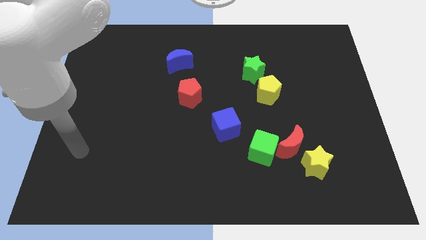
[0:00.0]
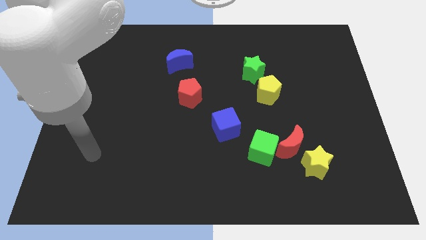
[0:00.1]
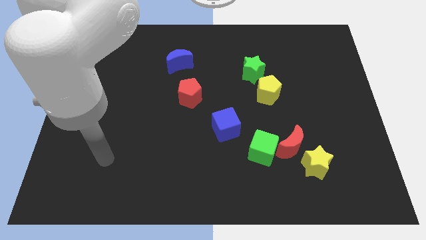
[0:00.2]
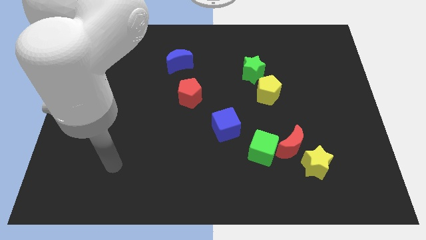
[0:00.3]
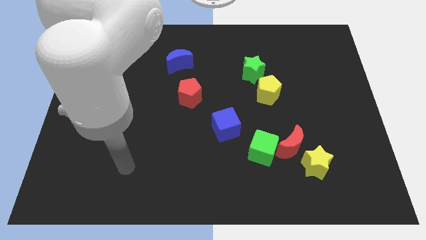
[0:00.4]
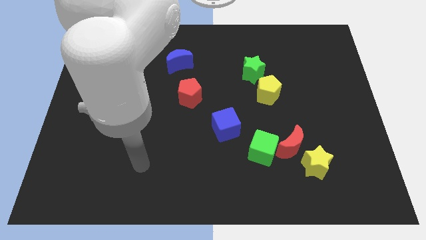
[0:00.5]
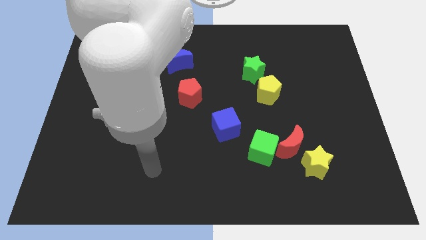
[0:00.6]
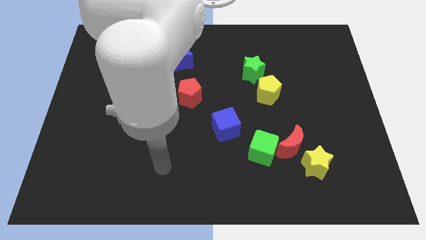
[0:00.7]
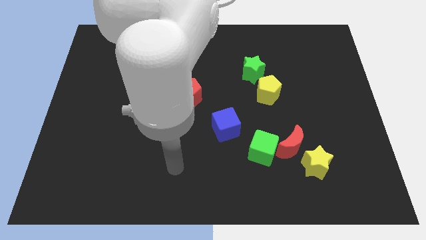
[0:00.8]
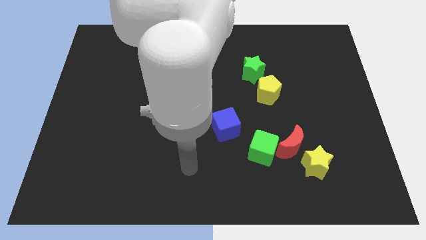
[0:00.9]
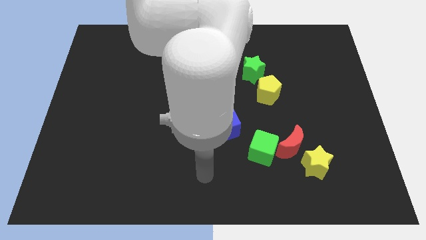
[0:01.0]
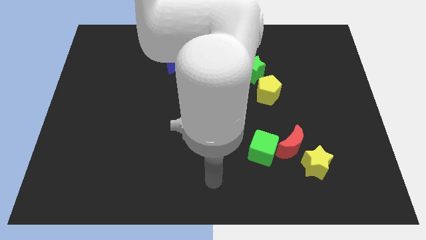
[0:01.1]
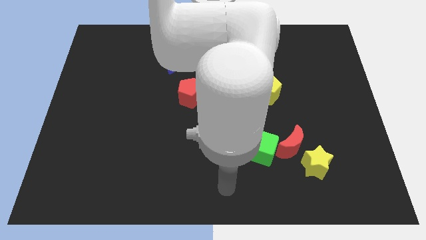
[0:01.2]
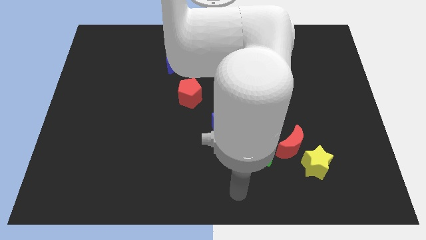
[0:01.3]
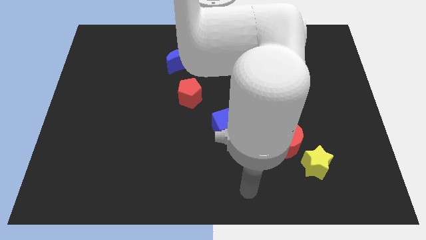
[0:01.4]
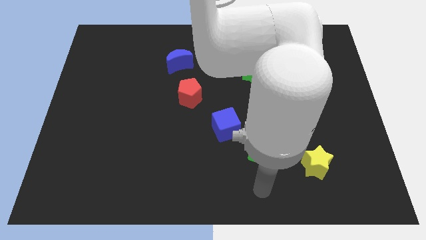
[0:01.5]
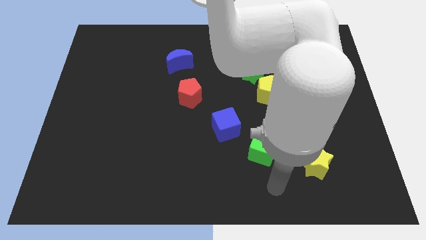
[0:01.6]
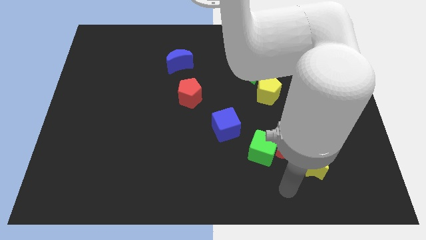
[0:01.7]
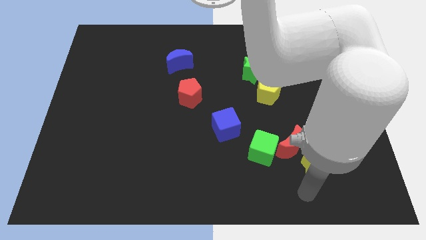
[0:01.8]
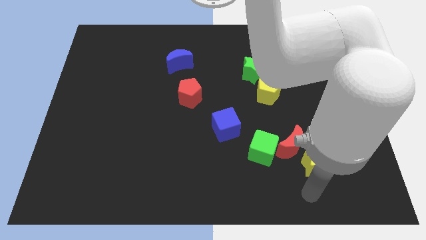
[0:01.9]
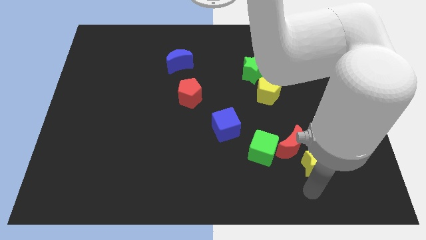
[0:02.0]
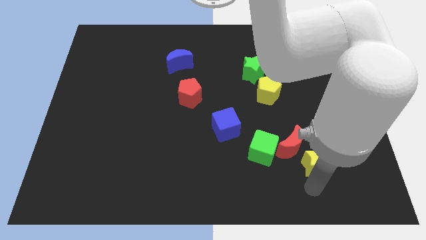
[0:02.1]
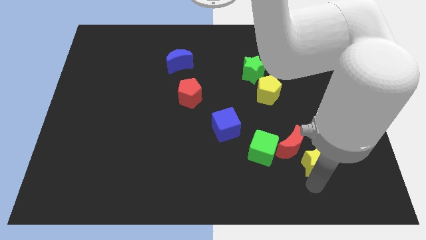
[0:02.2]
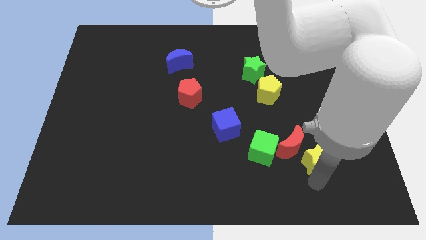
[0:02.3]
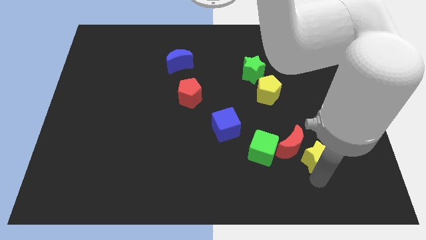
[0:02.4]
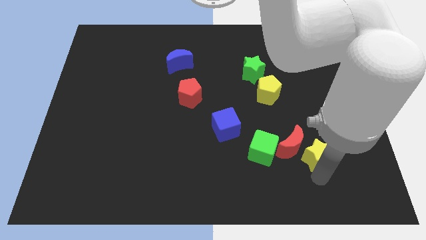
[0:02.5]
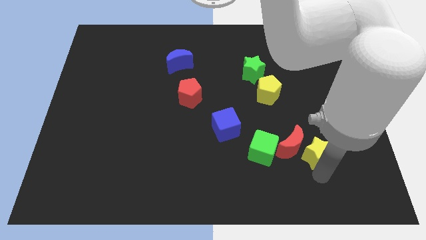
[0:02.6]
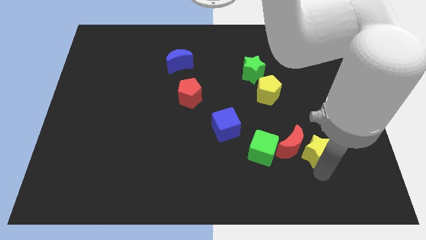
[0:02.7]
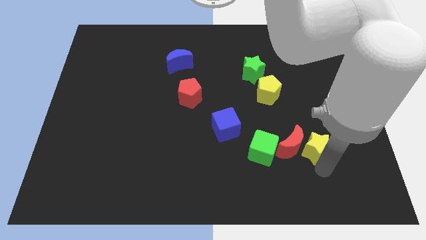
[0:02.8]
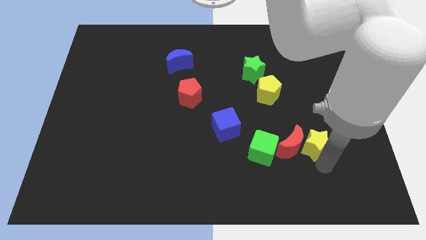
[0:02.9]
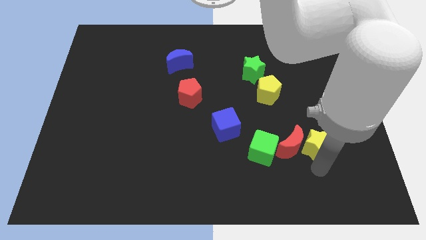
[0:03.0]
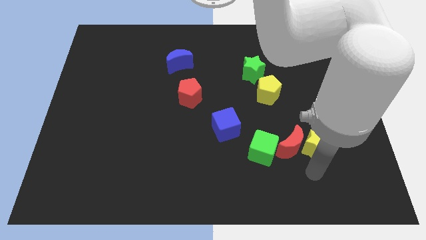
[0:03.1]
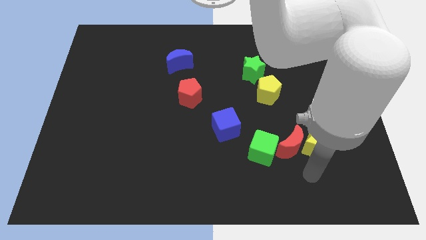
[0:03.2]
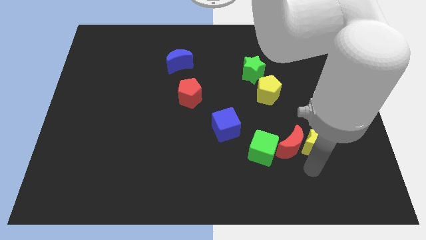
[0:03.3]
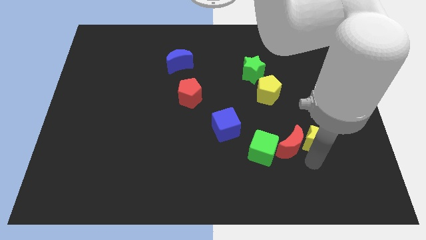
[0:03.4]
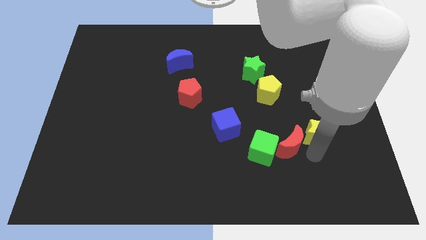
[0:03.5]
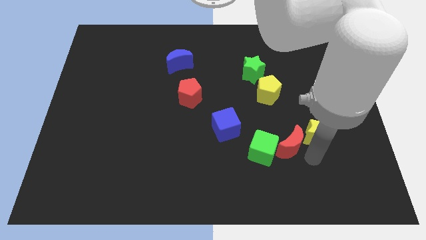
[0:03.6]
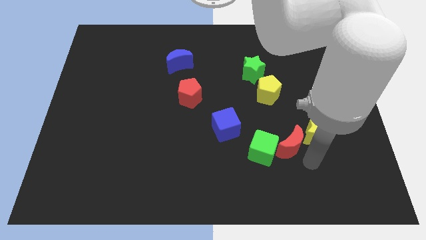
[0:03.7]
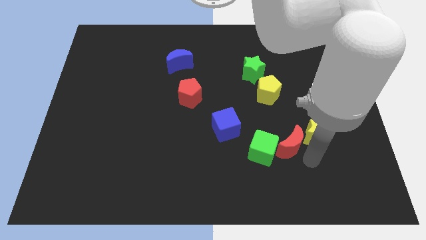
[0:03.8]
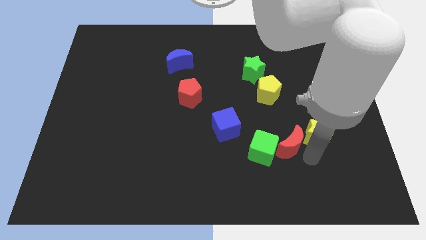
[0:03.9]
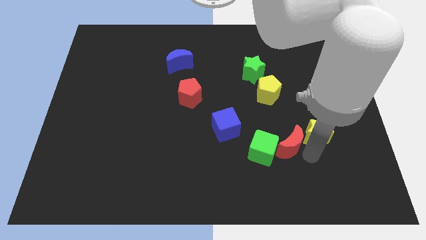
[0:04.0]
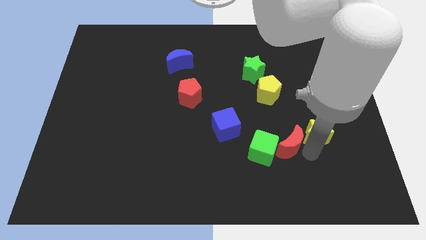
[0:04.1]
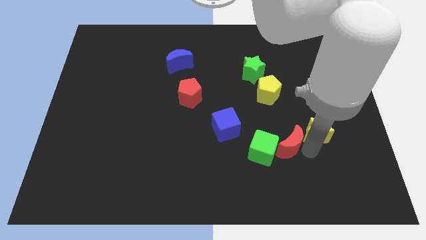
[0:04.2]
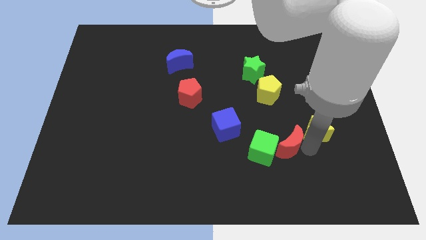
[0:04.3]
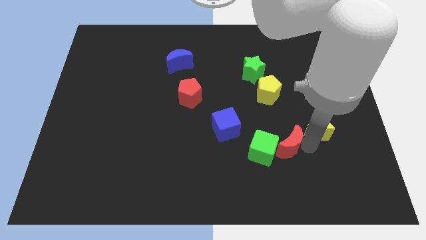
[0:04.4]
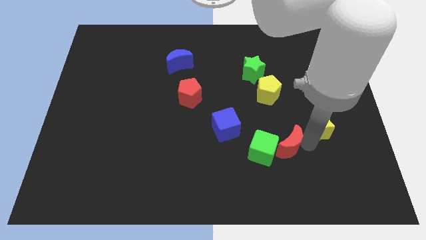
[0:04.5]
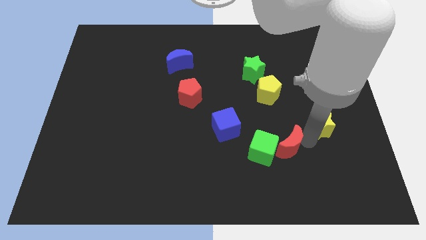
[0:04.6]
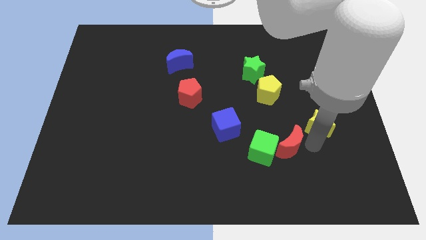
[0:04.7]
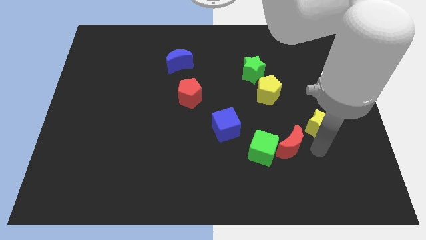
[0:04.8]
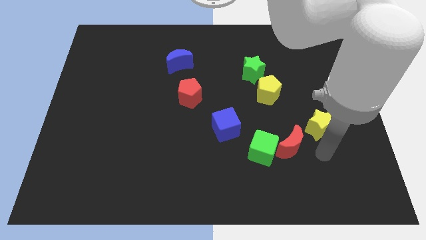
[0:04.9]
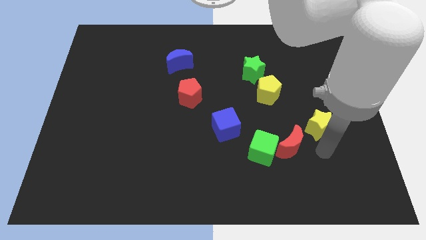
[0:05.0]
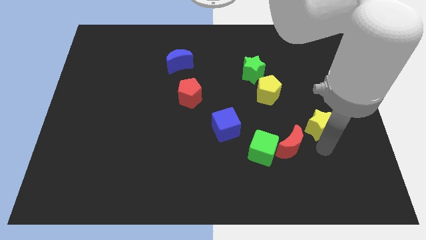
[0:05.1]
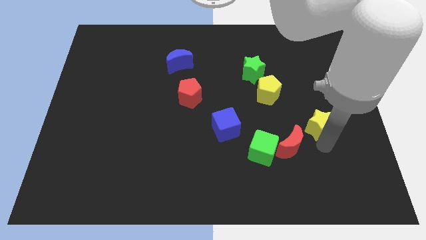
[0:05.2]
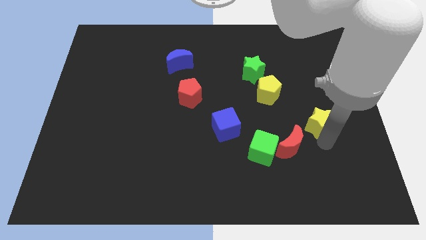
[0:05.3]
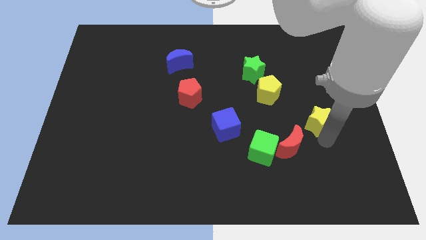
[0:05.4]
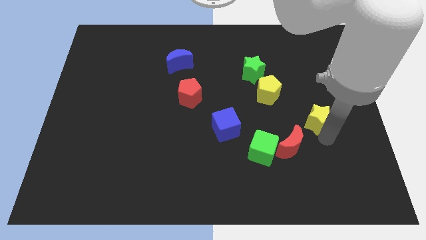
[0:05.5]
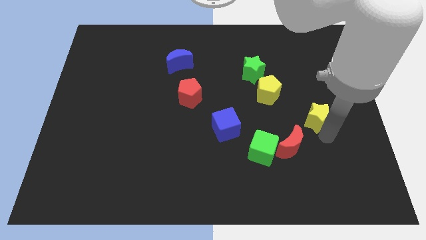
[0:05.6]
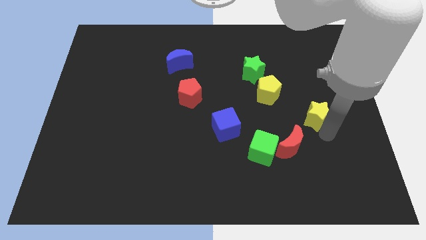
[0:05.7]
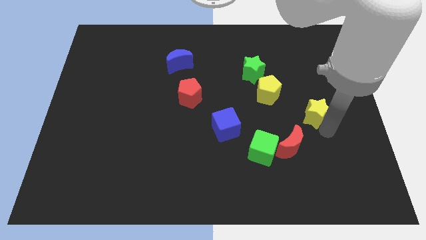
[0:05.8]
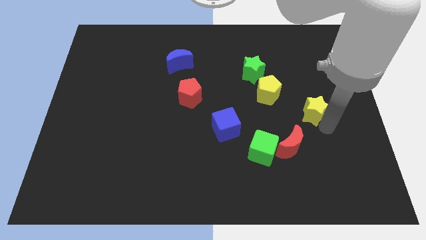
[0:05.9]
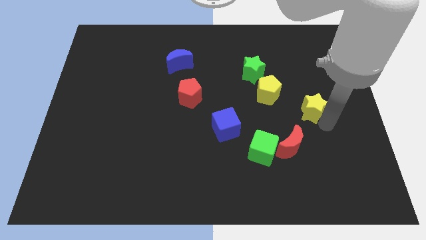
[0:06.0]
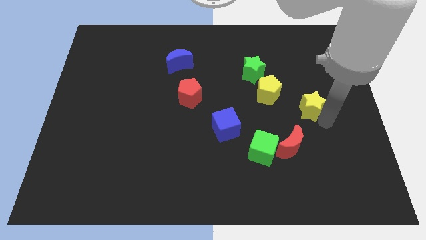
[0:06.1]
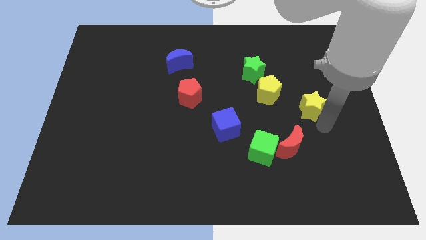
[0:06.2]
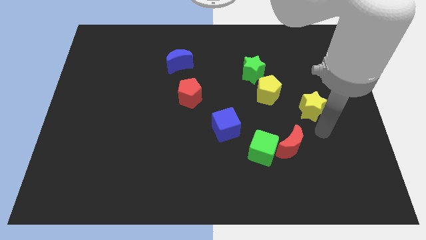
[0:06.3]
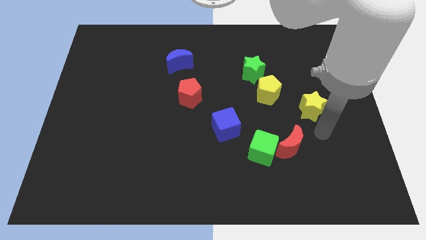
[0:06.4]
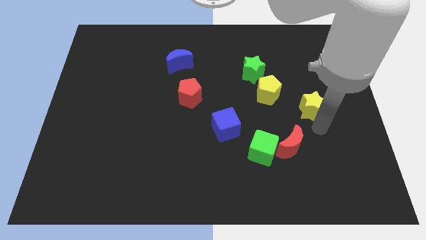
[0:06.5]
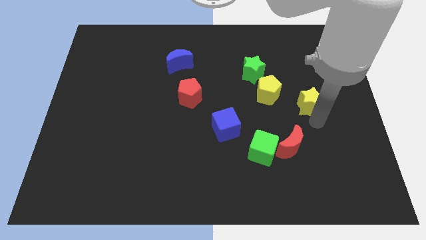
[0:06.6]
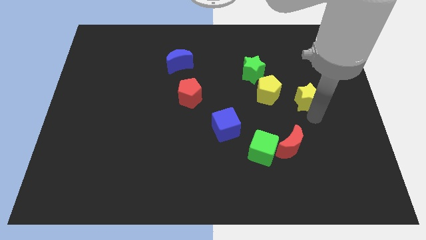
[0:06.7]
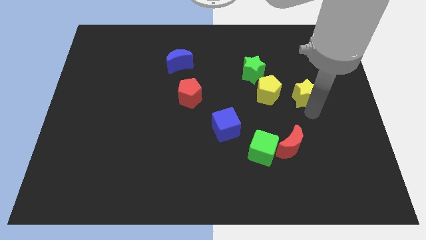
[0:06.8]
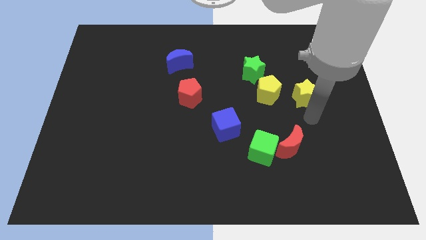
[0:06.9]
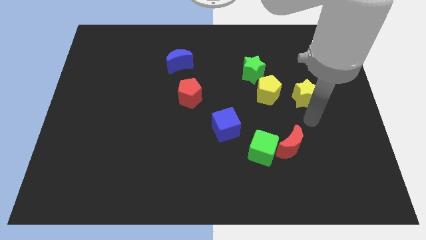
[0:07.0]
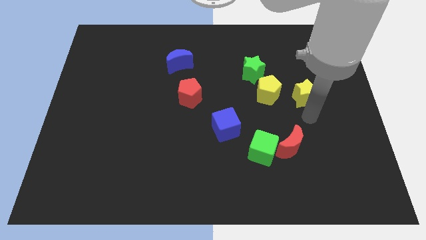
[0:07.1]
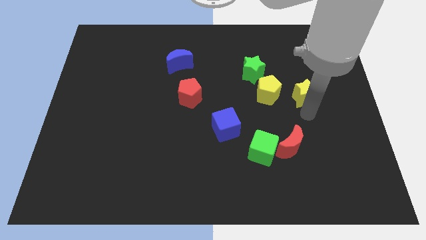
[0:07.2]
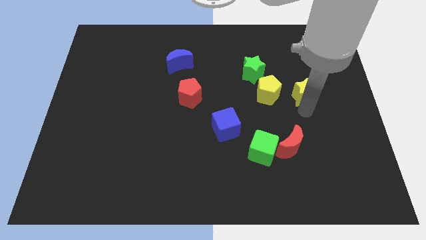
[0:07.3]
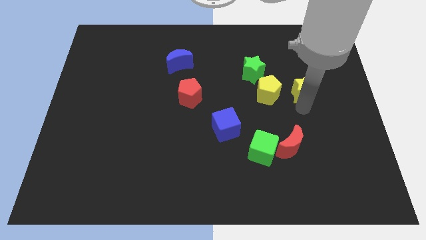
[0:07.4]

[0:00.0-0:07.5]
slide the yellow star up

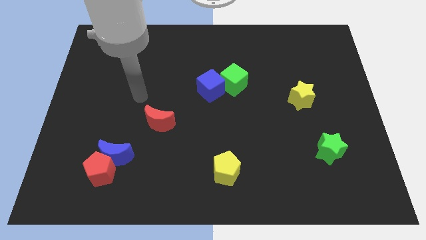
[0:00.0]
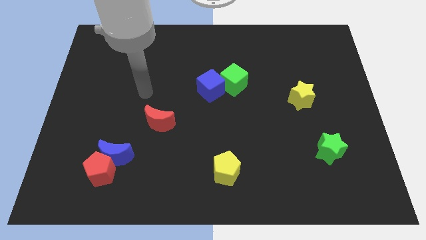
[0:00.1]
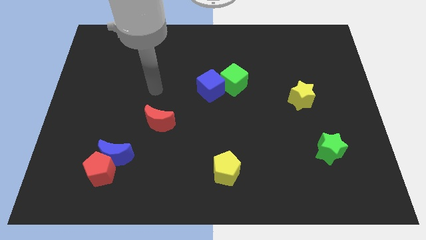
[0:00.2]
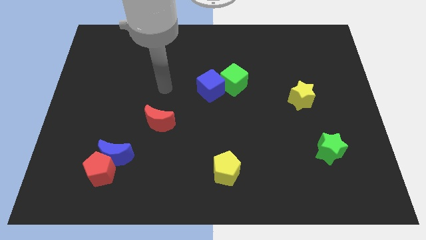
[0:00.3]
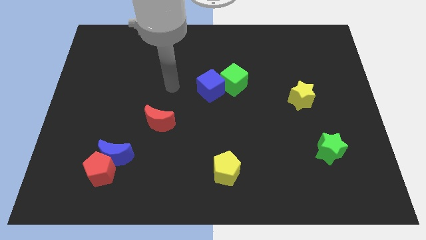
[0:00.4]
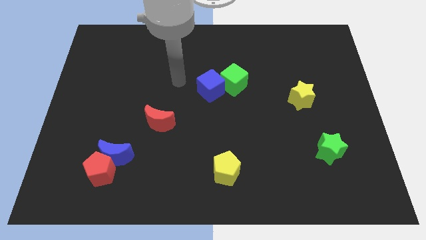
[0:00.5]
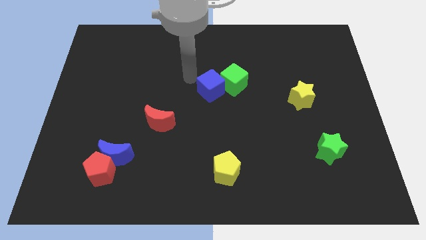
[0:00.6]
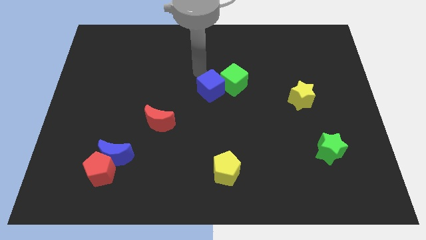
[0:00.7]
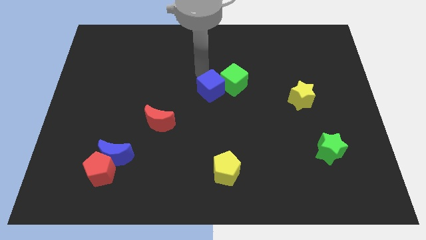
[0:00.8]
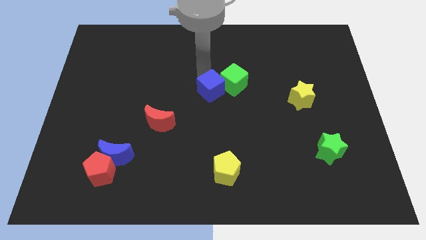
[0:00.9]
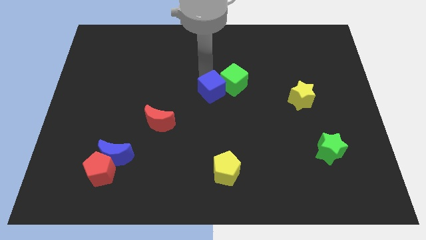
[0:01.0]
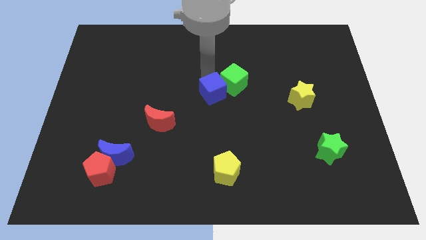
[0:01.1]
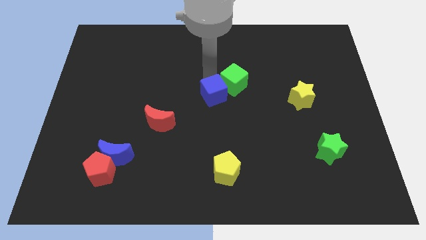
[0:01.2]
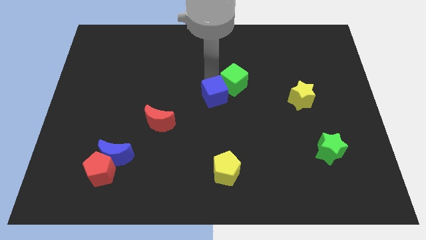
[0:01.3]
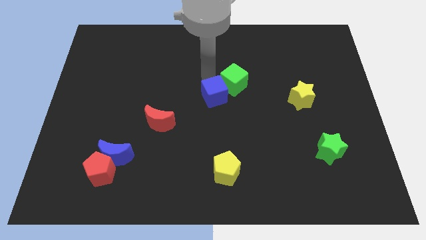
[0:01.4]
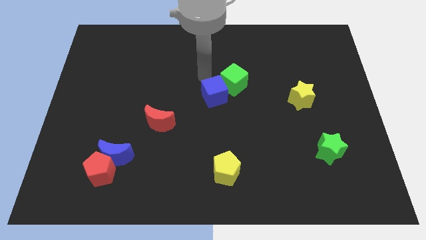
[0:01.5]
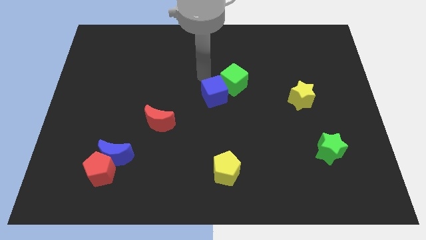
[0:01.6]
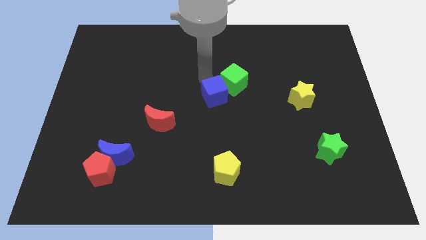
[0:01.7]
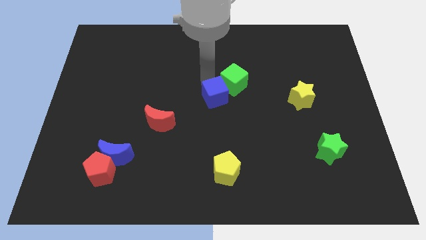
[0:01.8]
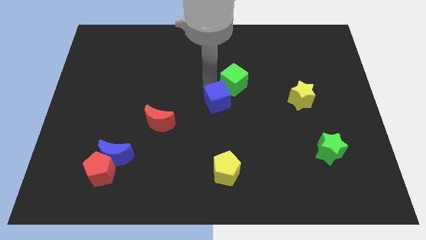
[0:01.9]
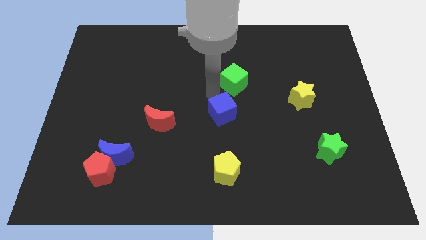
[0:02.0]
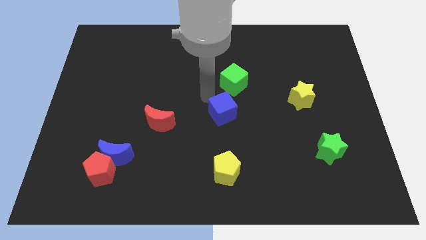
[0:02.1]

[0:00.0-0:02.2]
slide the blue cube diagonally down and to the right a little bit
